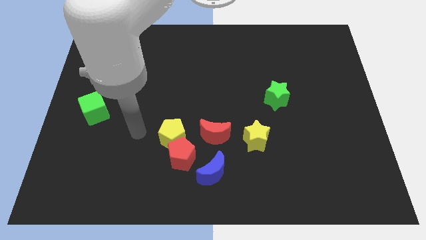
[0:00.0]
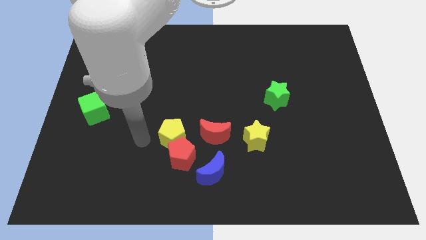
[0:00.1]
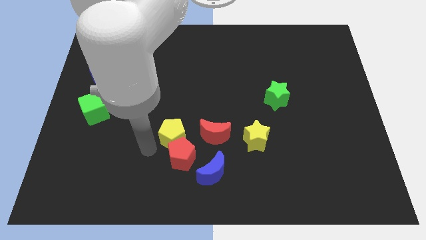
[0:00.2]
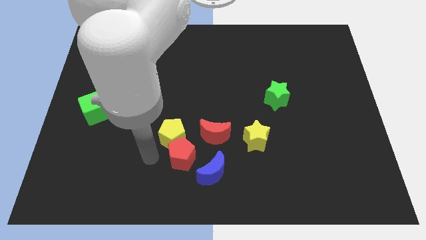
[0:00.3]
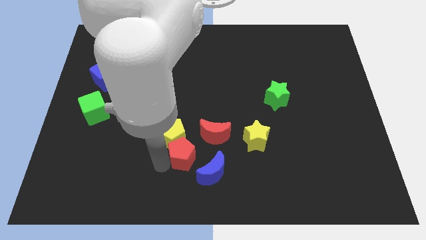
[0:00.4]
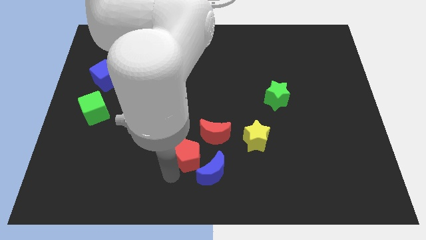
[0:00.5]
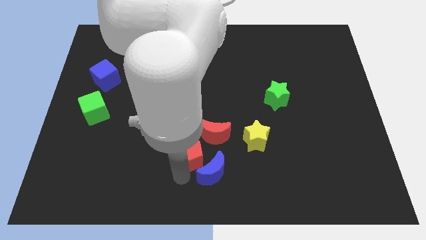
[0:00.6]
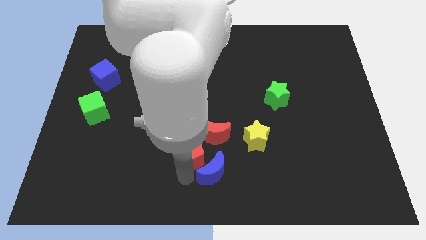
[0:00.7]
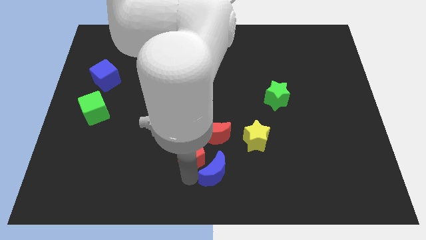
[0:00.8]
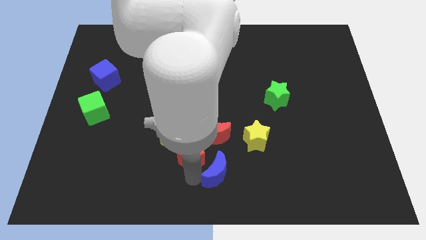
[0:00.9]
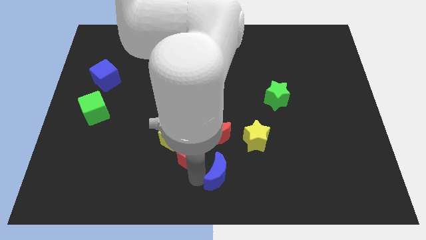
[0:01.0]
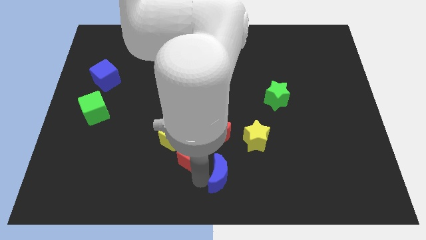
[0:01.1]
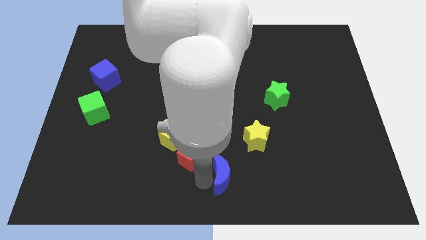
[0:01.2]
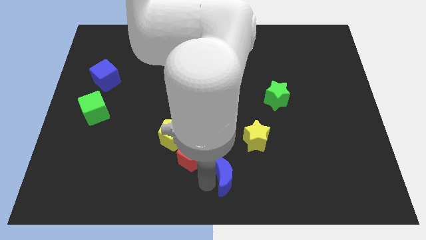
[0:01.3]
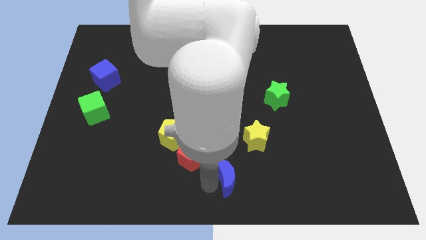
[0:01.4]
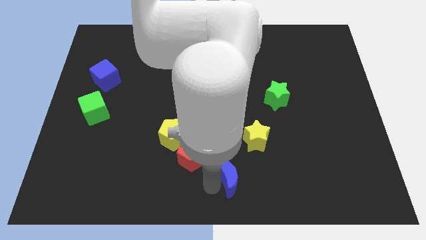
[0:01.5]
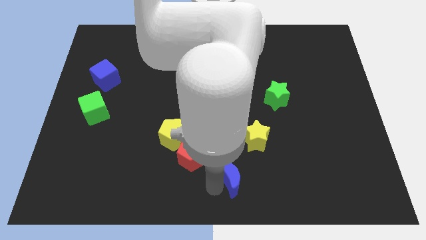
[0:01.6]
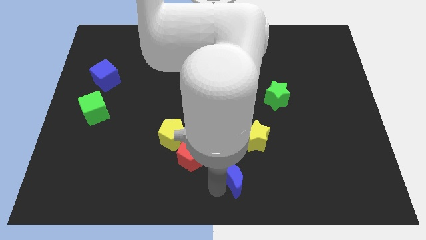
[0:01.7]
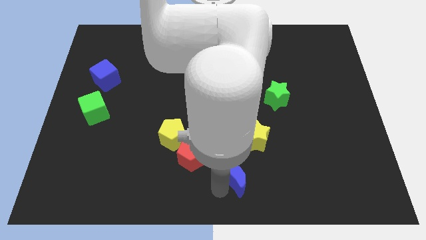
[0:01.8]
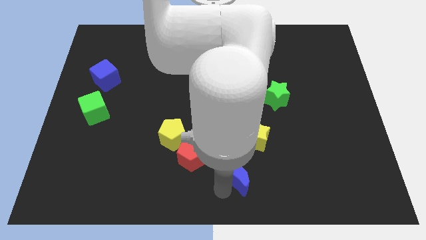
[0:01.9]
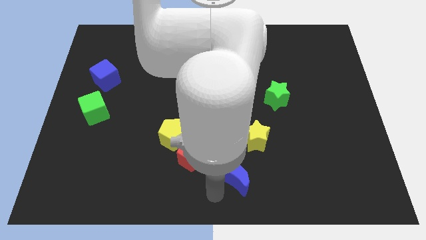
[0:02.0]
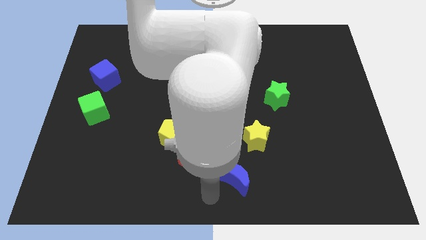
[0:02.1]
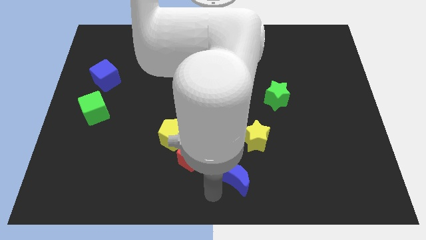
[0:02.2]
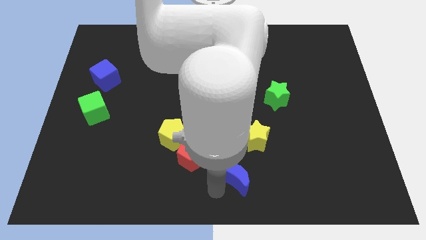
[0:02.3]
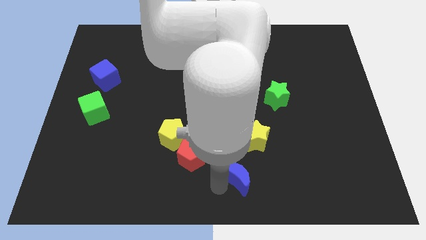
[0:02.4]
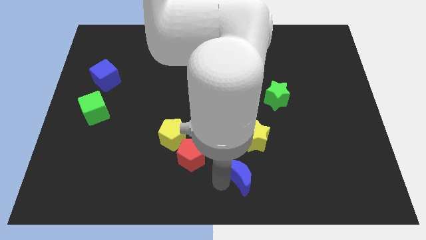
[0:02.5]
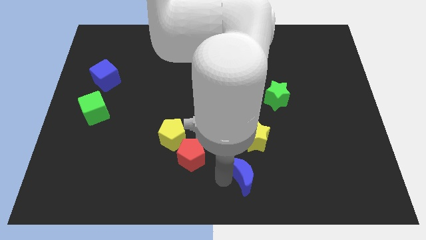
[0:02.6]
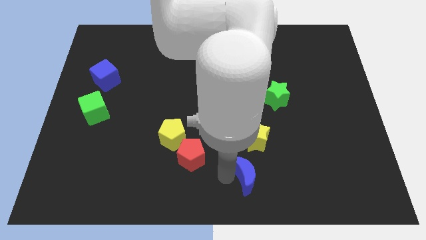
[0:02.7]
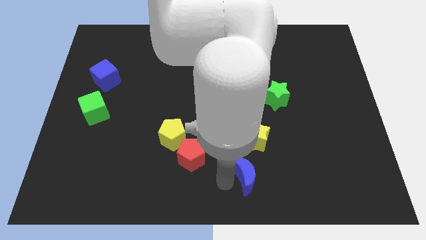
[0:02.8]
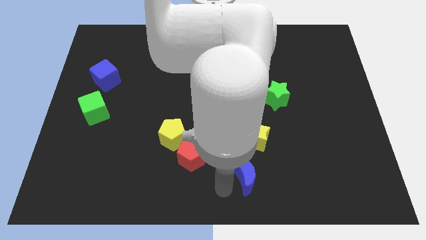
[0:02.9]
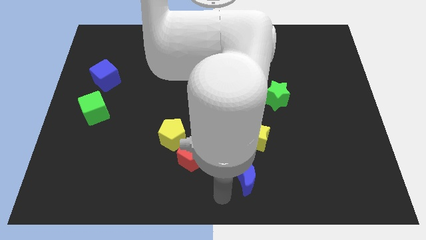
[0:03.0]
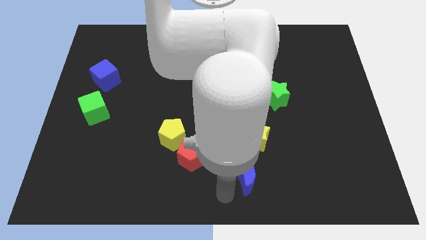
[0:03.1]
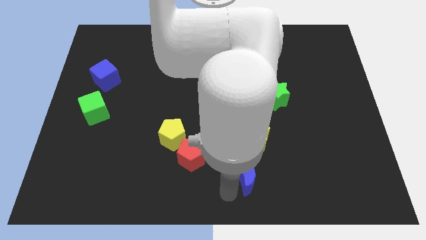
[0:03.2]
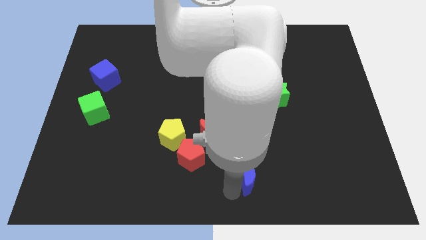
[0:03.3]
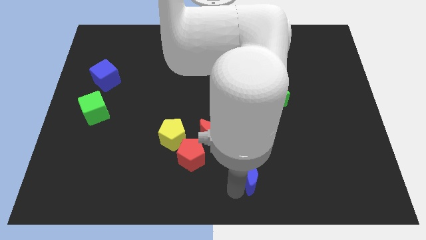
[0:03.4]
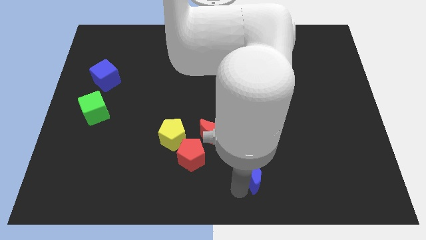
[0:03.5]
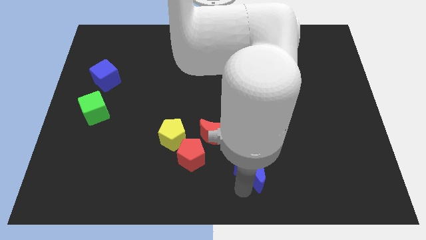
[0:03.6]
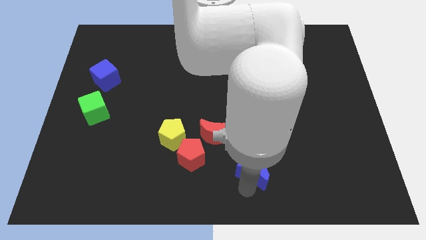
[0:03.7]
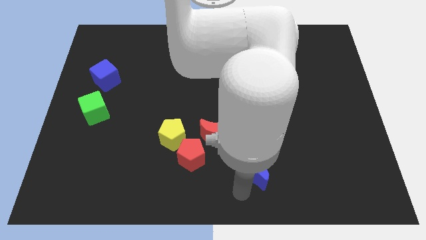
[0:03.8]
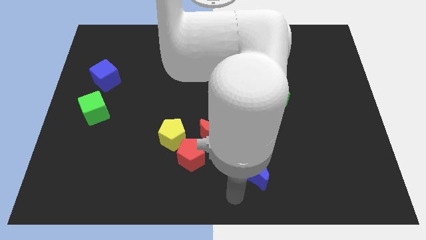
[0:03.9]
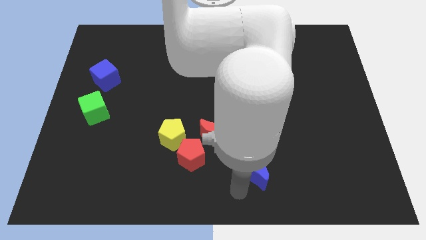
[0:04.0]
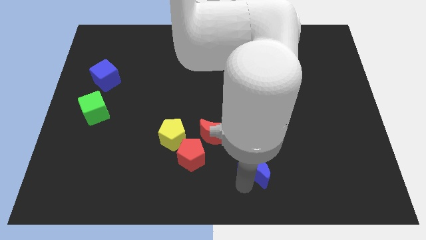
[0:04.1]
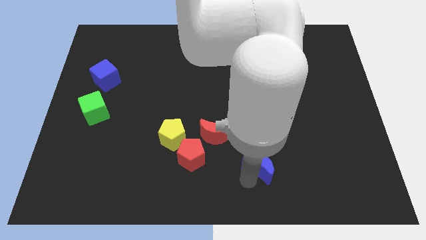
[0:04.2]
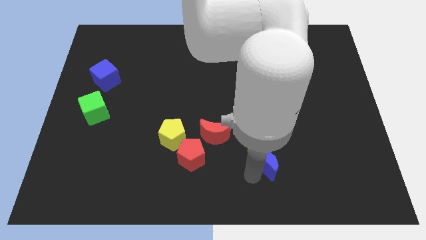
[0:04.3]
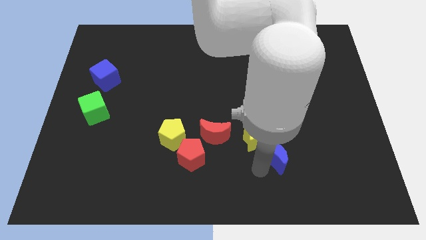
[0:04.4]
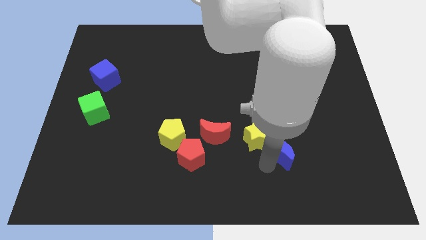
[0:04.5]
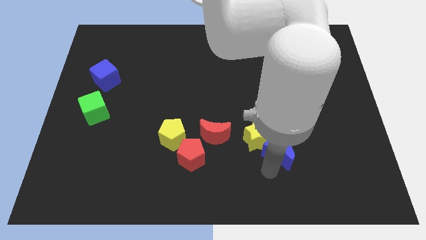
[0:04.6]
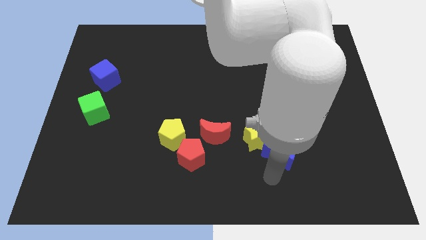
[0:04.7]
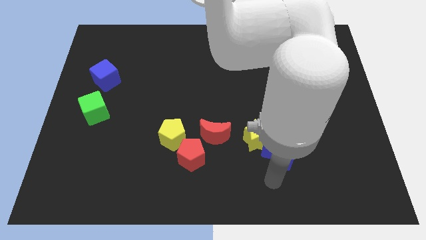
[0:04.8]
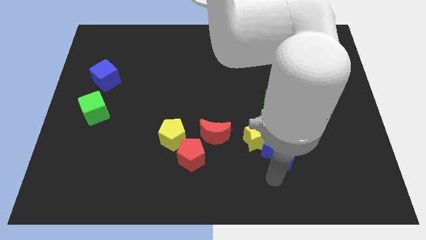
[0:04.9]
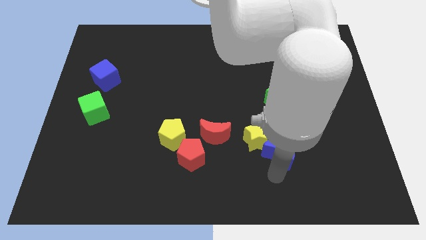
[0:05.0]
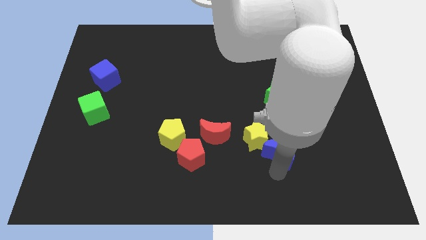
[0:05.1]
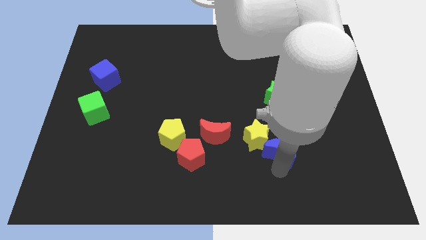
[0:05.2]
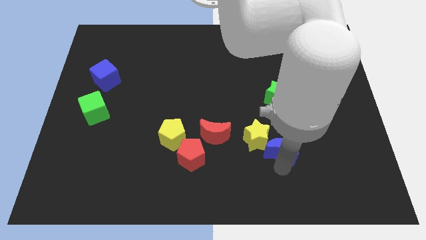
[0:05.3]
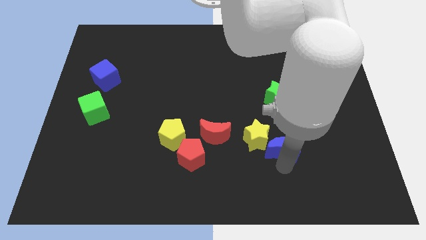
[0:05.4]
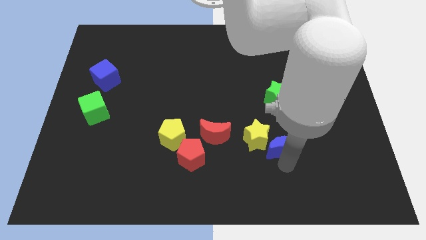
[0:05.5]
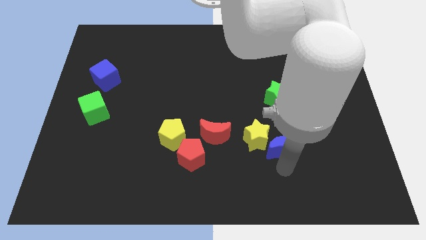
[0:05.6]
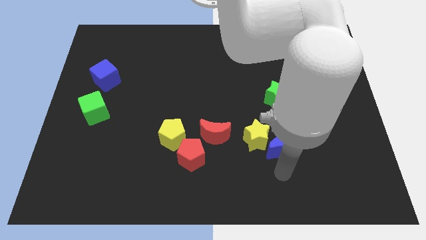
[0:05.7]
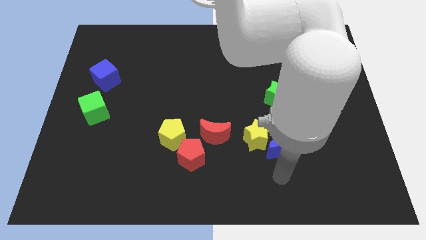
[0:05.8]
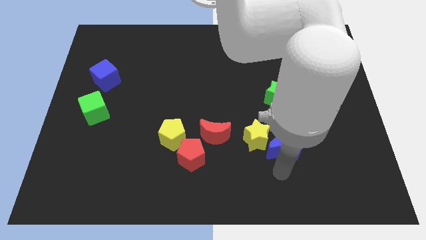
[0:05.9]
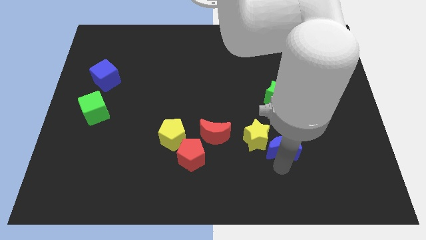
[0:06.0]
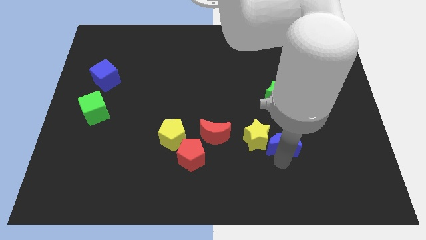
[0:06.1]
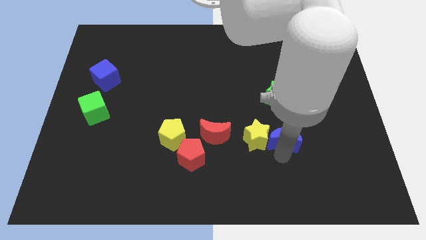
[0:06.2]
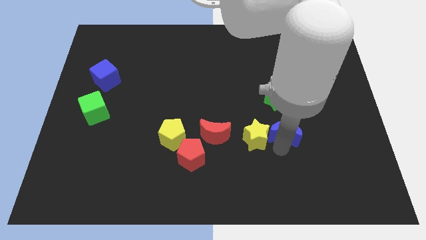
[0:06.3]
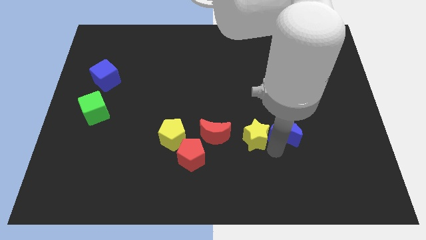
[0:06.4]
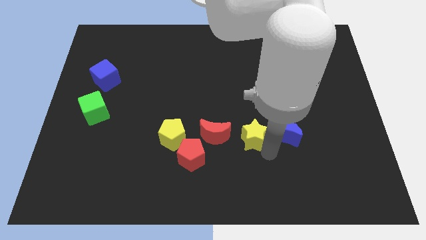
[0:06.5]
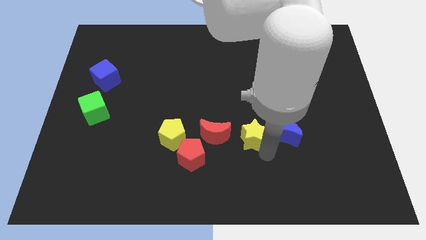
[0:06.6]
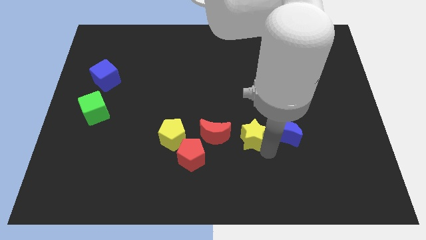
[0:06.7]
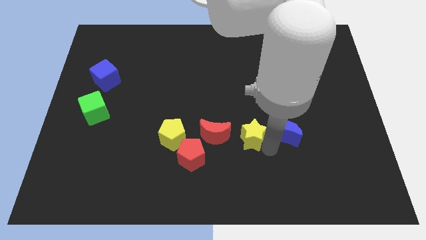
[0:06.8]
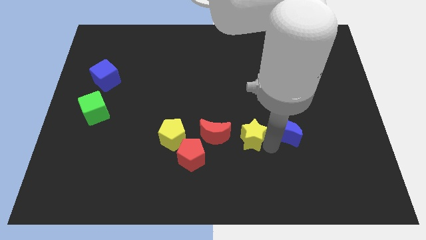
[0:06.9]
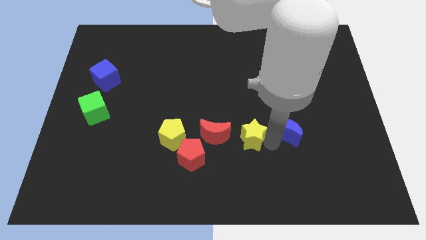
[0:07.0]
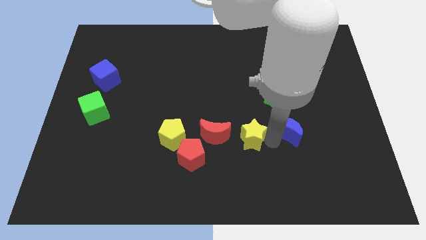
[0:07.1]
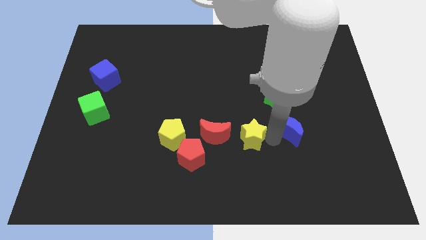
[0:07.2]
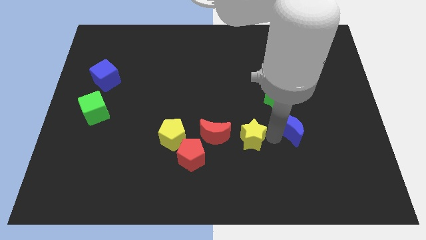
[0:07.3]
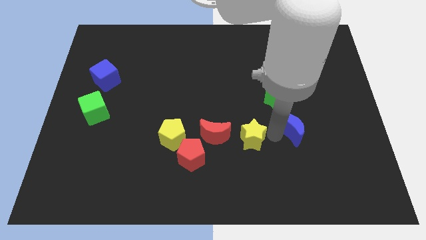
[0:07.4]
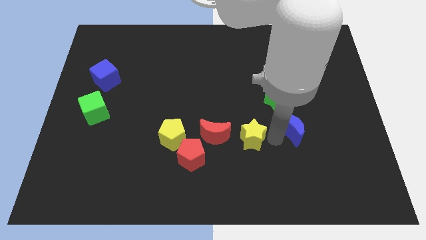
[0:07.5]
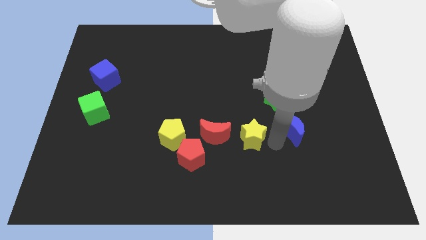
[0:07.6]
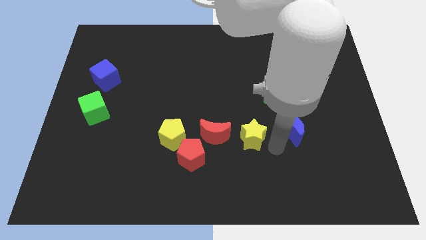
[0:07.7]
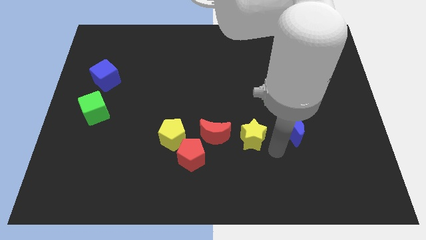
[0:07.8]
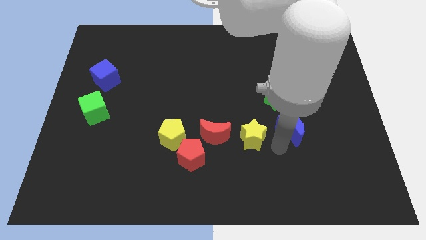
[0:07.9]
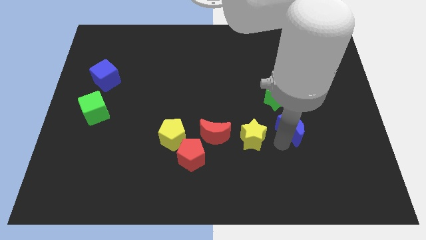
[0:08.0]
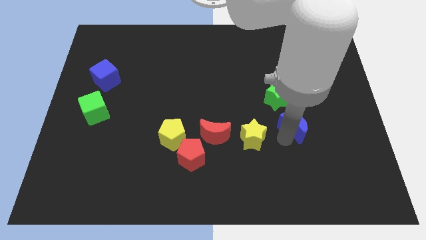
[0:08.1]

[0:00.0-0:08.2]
slide the blue moon upwards and right
